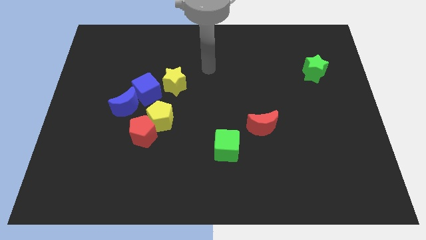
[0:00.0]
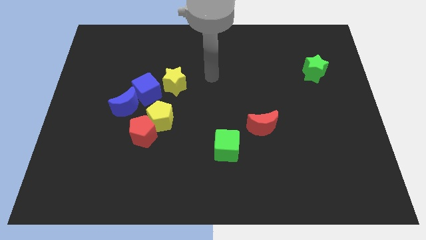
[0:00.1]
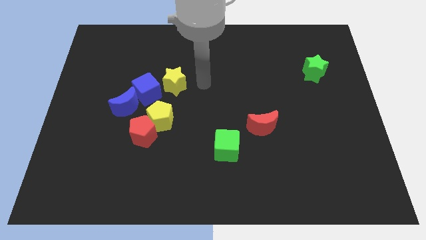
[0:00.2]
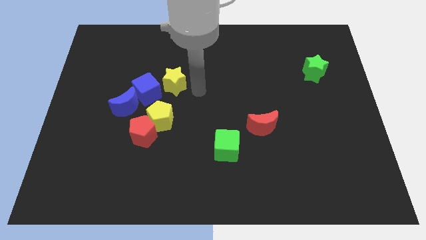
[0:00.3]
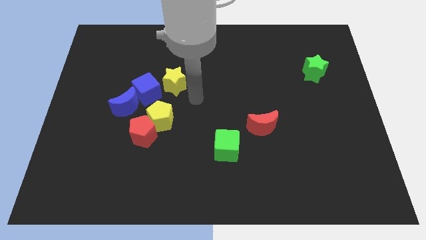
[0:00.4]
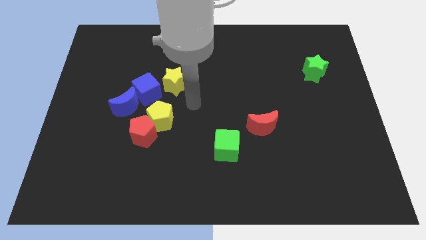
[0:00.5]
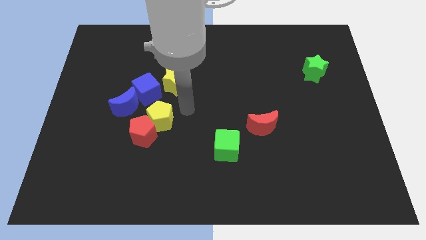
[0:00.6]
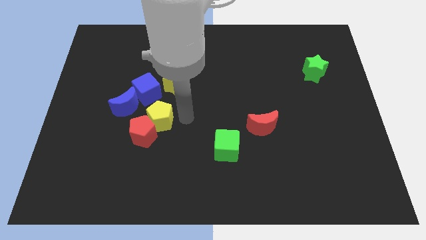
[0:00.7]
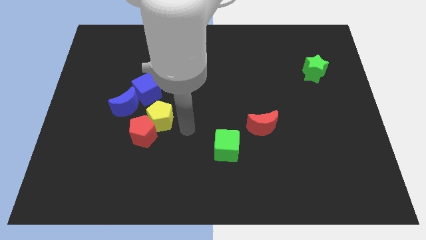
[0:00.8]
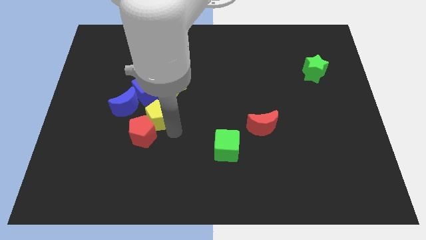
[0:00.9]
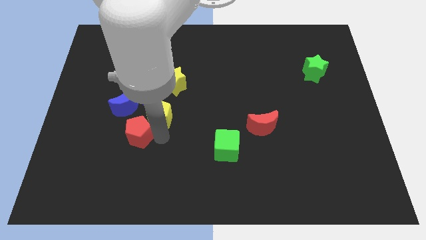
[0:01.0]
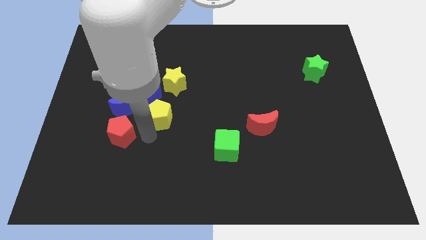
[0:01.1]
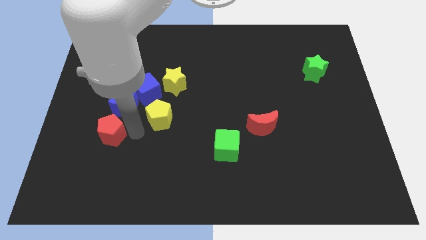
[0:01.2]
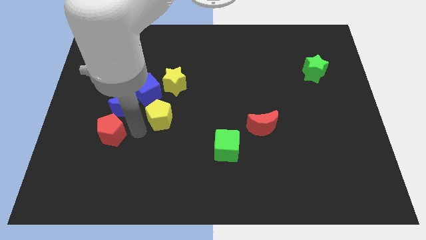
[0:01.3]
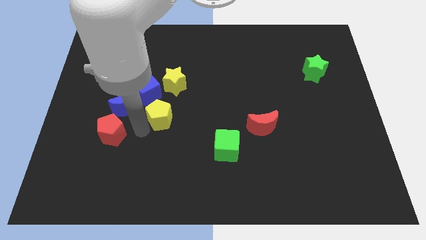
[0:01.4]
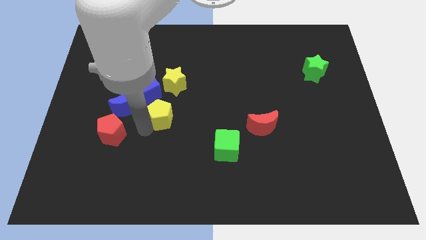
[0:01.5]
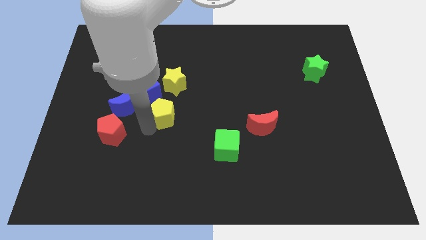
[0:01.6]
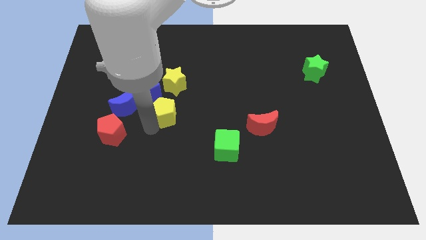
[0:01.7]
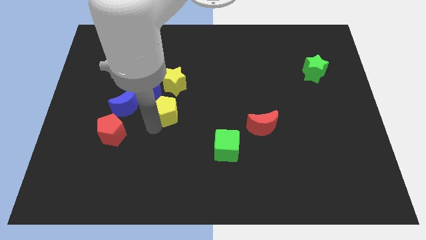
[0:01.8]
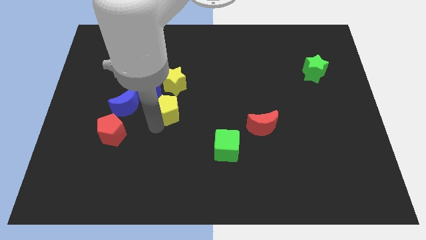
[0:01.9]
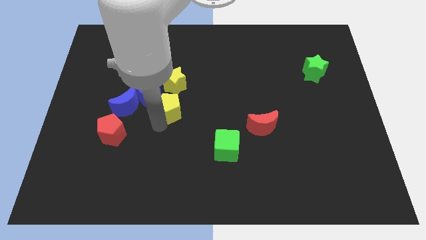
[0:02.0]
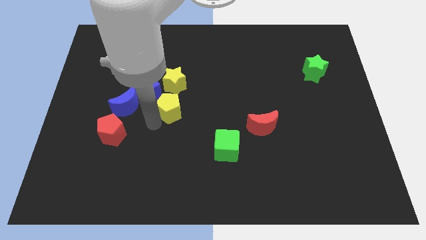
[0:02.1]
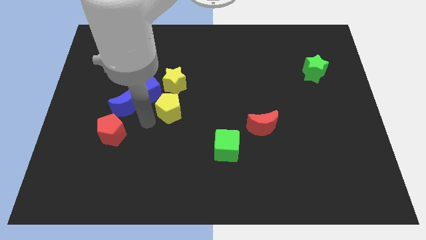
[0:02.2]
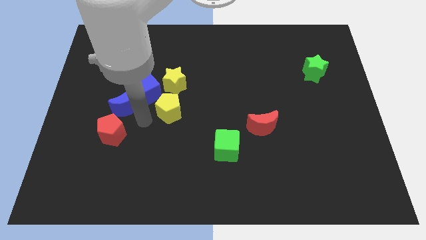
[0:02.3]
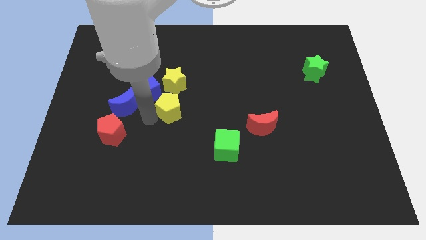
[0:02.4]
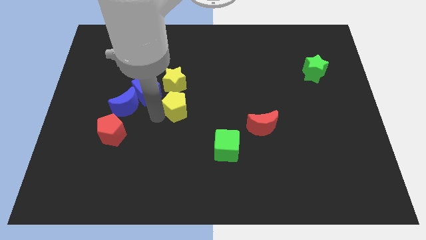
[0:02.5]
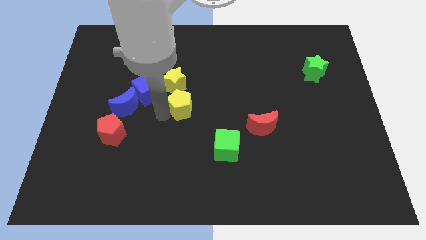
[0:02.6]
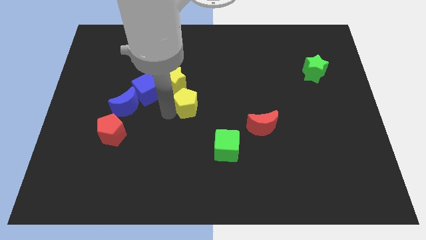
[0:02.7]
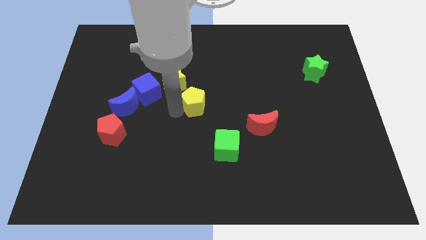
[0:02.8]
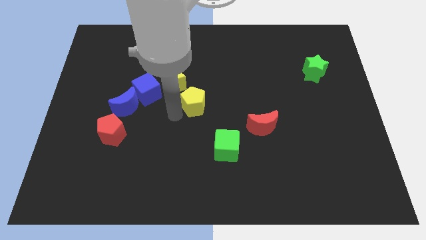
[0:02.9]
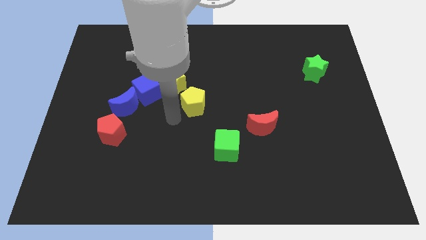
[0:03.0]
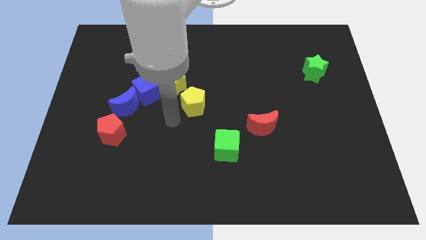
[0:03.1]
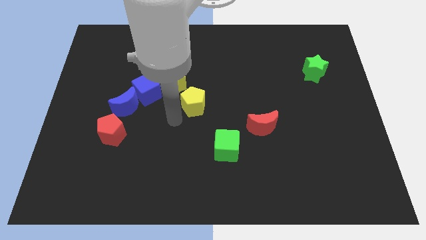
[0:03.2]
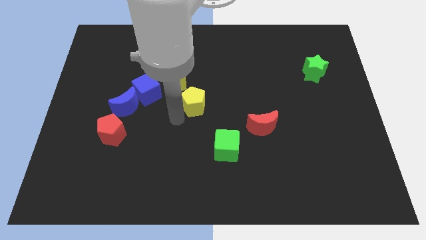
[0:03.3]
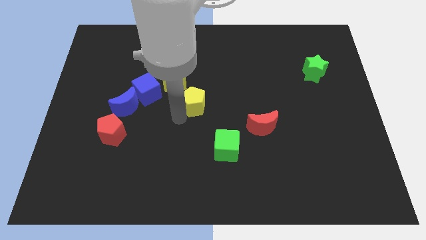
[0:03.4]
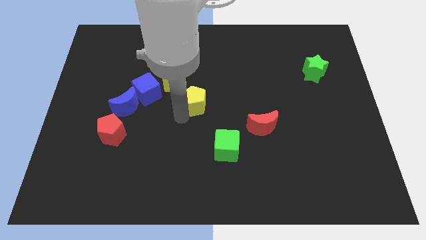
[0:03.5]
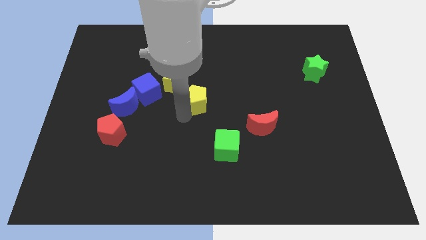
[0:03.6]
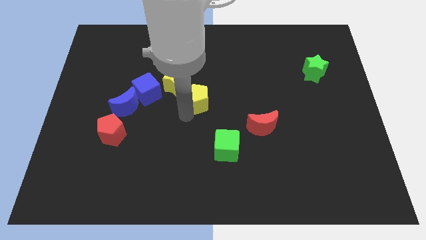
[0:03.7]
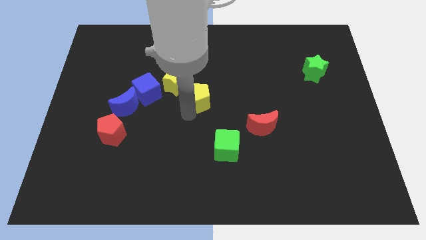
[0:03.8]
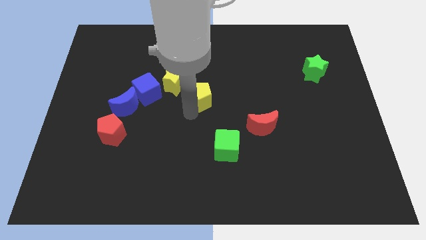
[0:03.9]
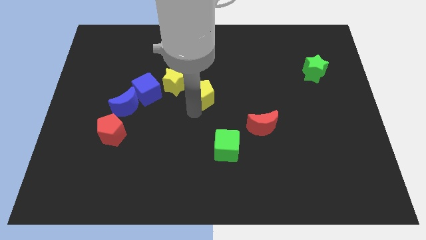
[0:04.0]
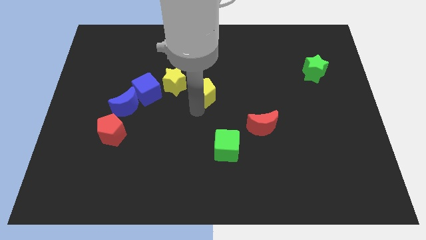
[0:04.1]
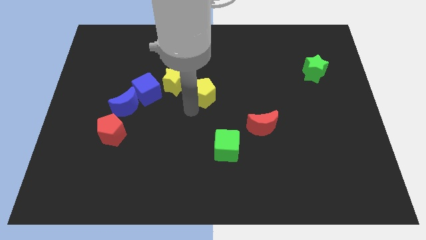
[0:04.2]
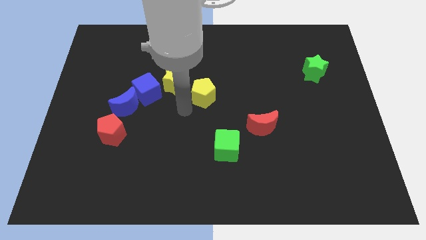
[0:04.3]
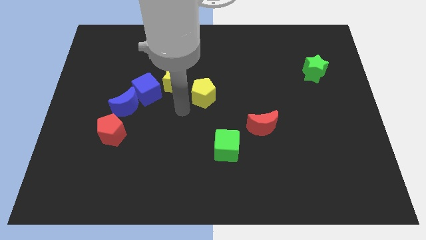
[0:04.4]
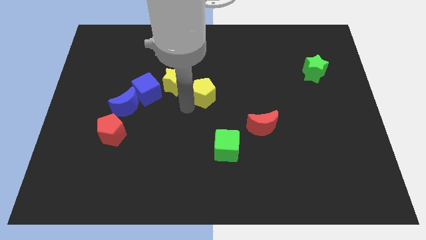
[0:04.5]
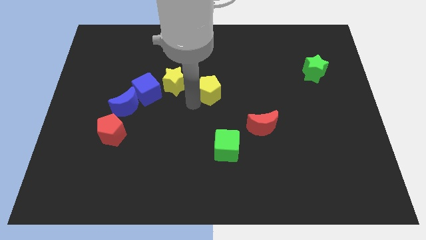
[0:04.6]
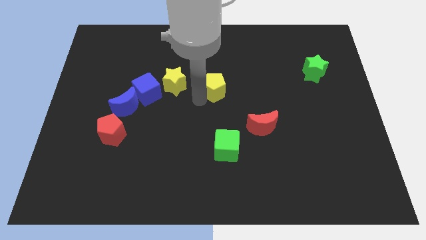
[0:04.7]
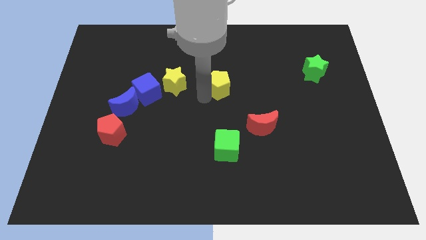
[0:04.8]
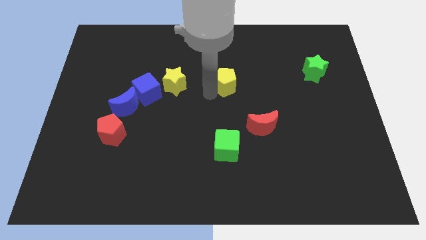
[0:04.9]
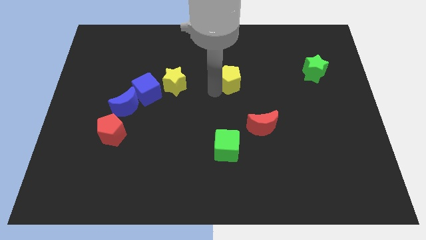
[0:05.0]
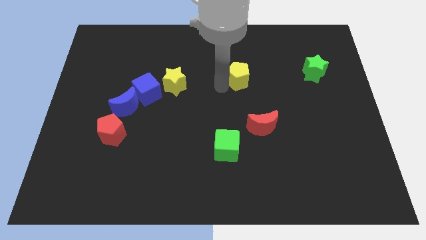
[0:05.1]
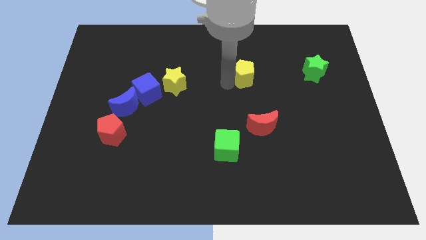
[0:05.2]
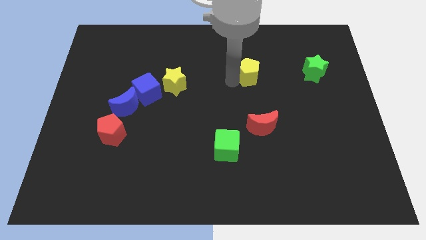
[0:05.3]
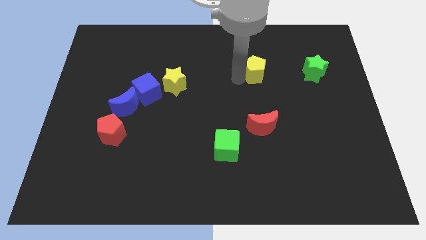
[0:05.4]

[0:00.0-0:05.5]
slide the yellow pentagon to the left of the green star

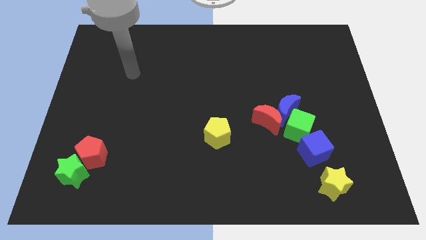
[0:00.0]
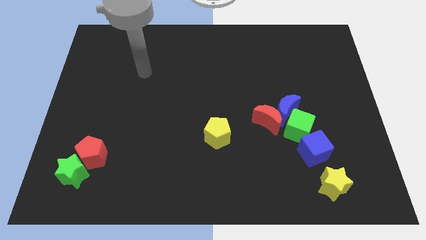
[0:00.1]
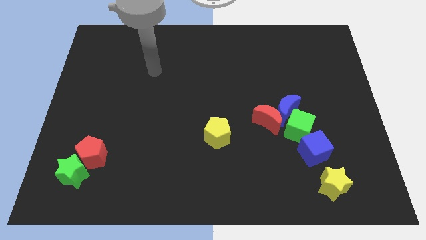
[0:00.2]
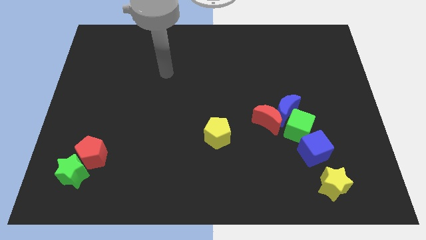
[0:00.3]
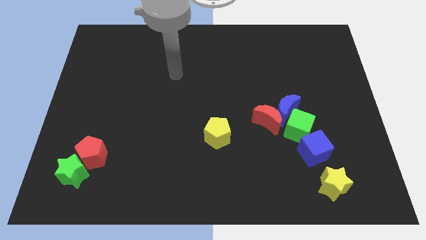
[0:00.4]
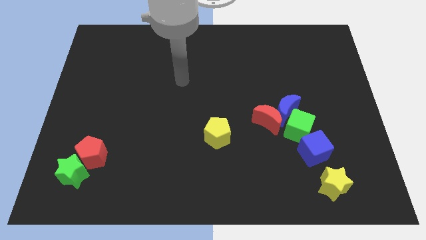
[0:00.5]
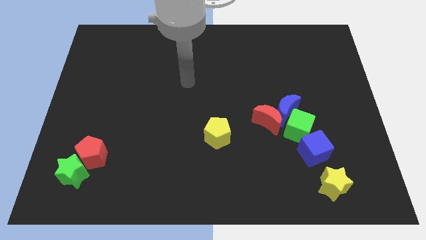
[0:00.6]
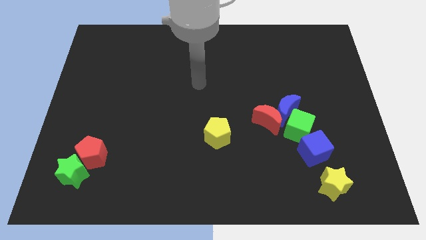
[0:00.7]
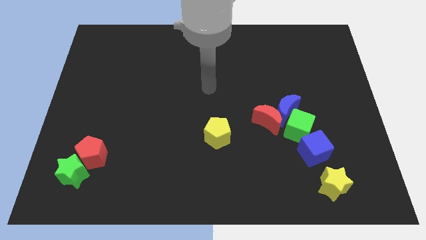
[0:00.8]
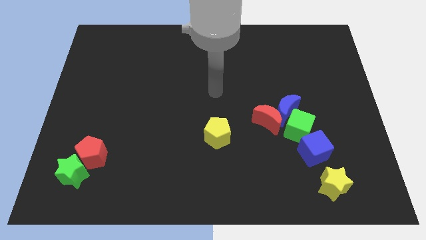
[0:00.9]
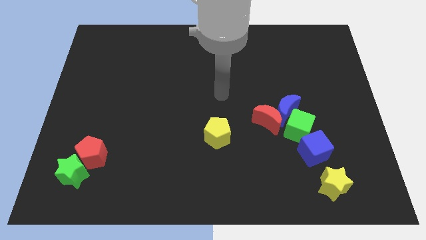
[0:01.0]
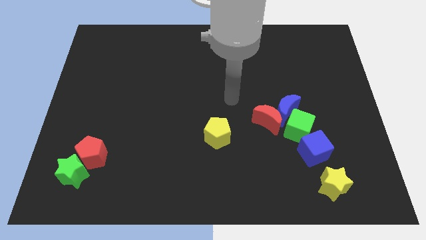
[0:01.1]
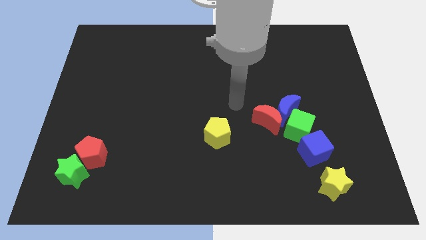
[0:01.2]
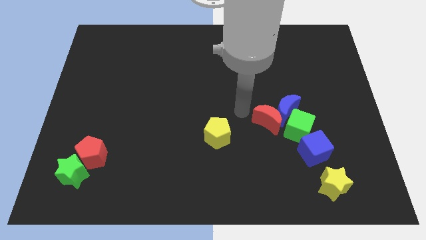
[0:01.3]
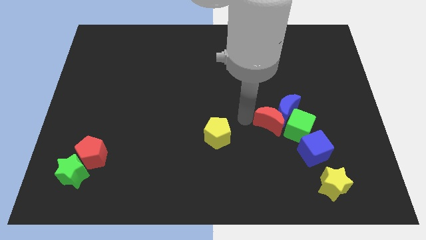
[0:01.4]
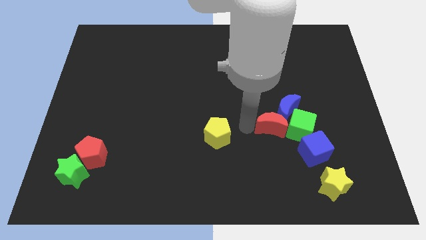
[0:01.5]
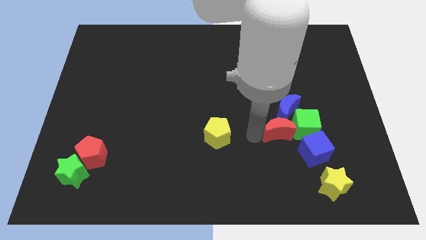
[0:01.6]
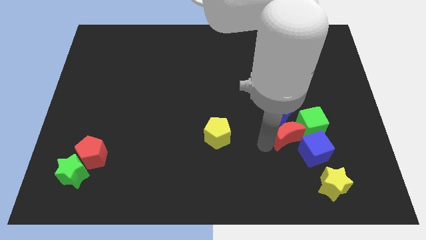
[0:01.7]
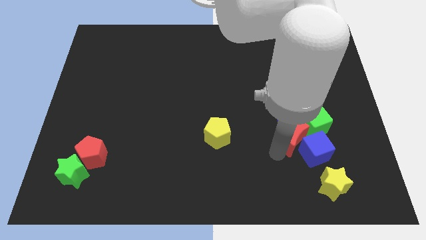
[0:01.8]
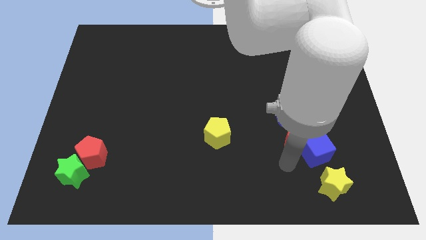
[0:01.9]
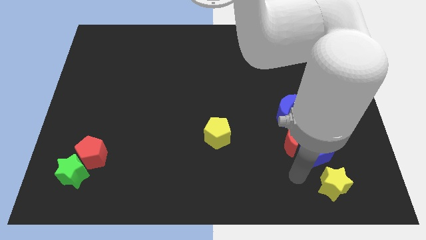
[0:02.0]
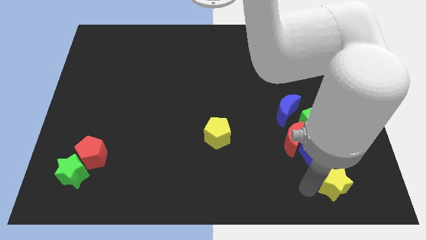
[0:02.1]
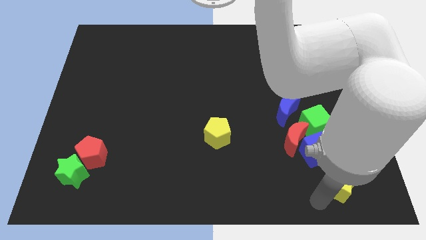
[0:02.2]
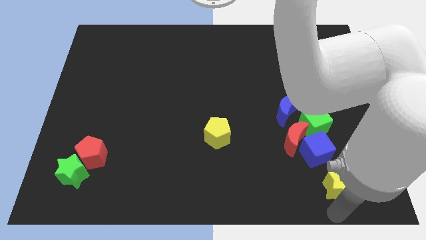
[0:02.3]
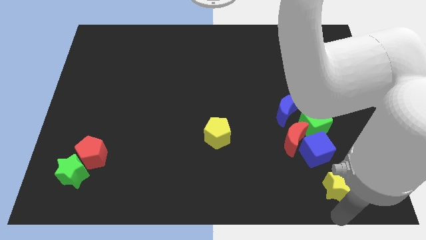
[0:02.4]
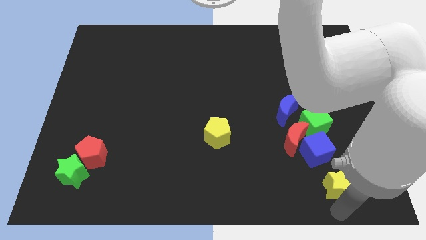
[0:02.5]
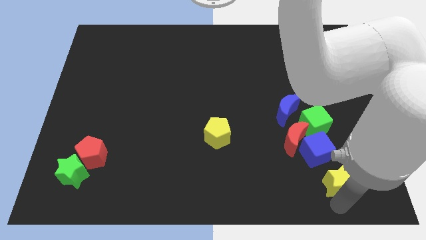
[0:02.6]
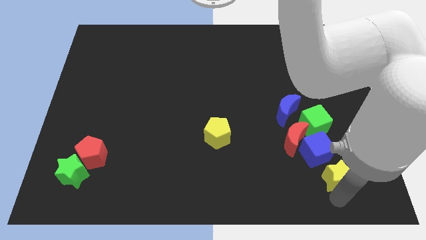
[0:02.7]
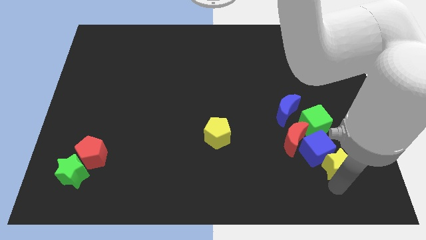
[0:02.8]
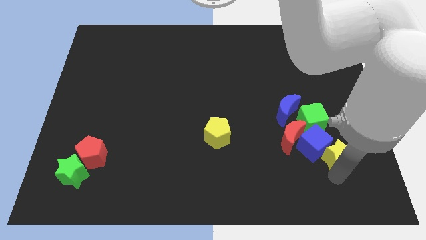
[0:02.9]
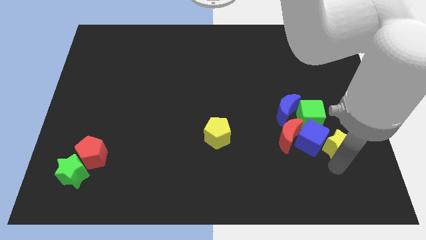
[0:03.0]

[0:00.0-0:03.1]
slide the yellow star diagonally up and to the right of the blue cube
